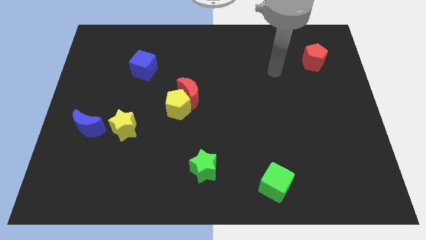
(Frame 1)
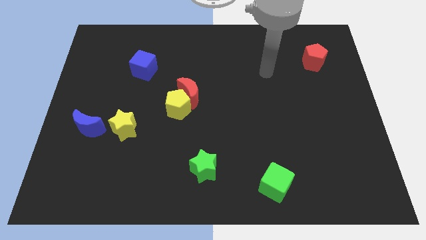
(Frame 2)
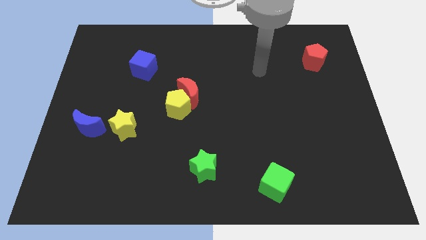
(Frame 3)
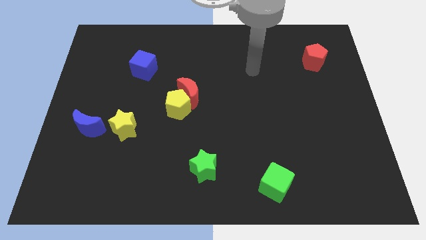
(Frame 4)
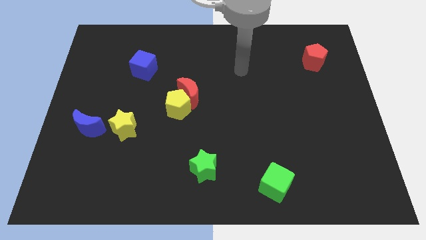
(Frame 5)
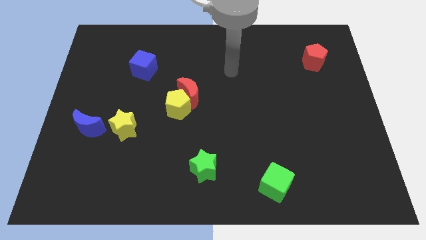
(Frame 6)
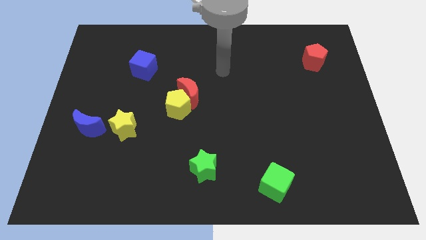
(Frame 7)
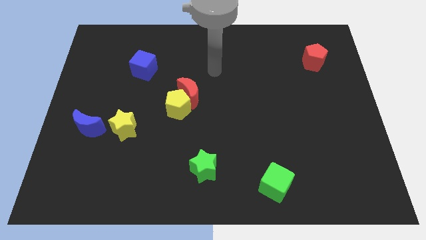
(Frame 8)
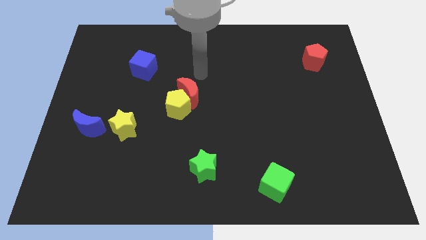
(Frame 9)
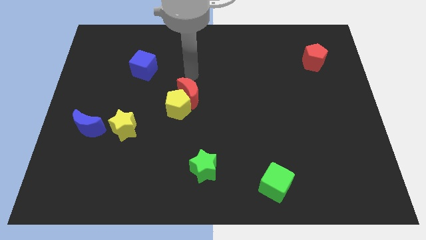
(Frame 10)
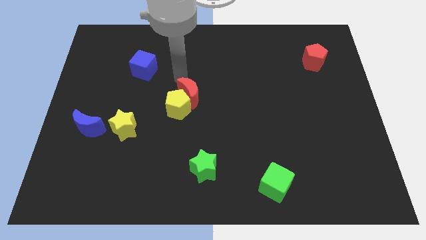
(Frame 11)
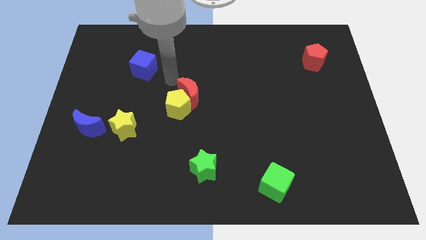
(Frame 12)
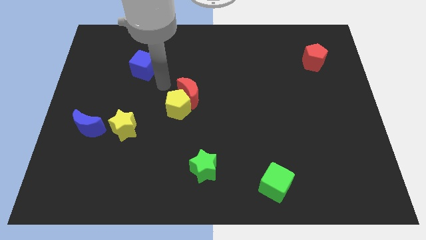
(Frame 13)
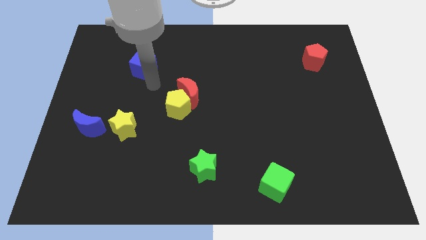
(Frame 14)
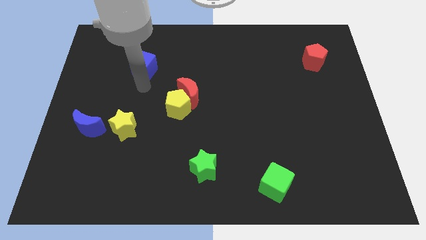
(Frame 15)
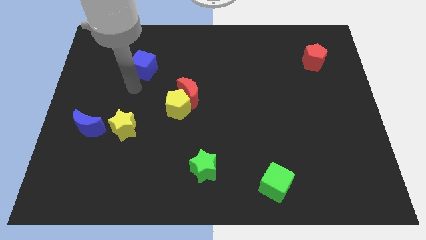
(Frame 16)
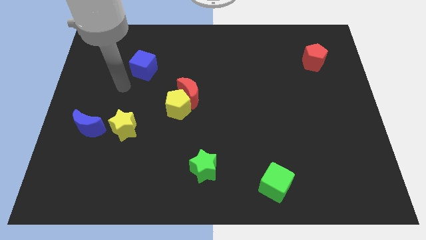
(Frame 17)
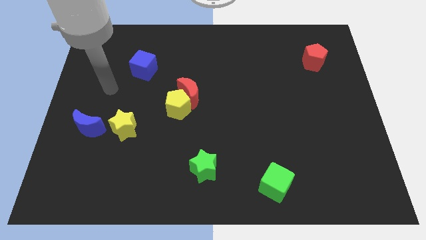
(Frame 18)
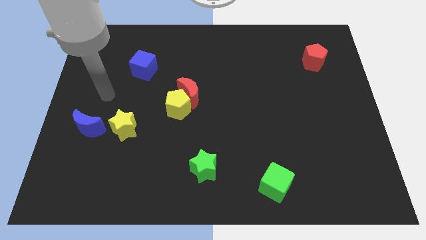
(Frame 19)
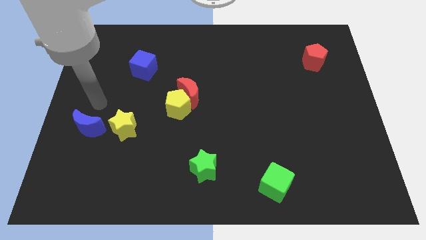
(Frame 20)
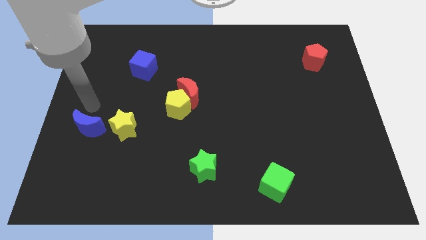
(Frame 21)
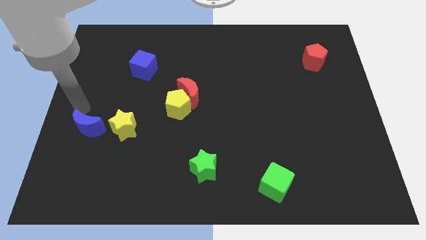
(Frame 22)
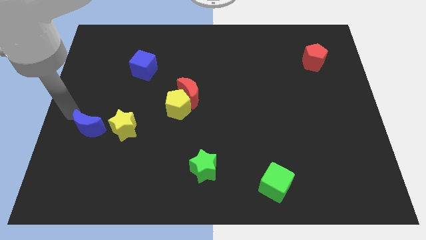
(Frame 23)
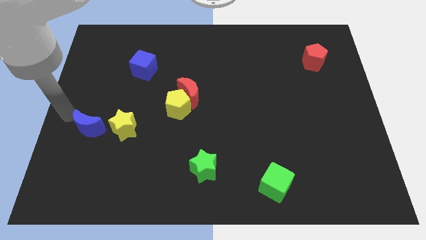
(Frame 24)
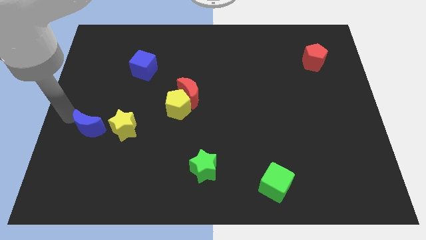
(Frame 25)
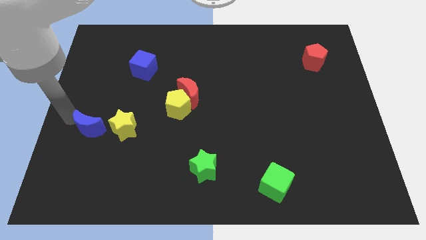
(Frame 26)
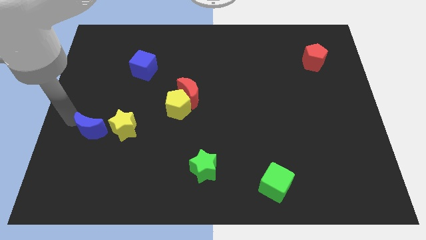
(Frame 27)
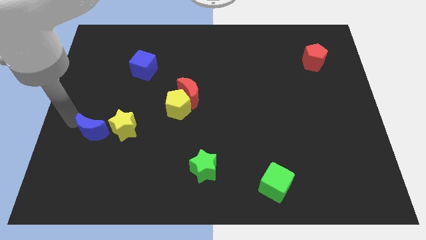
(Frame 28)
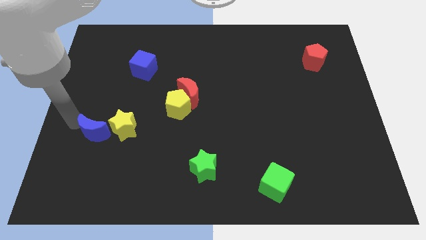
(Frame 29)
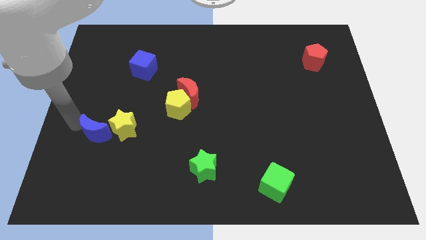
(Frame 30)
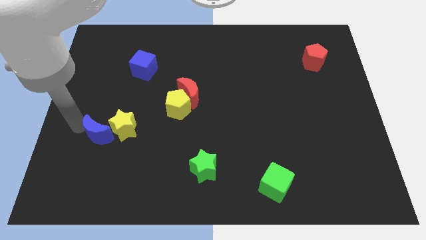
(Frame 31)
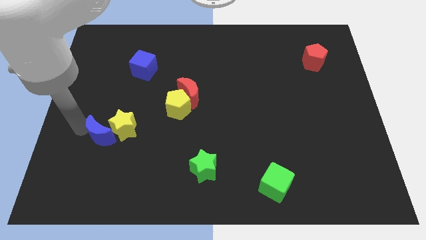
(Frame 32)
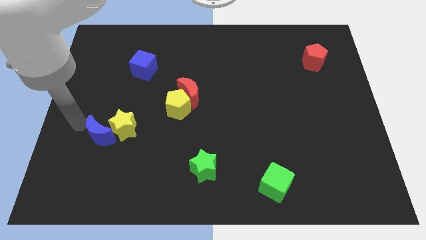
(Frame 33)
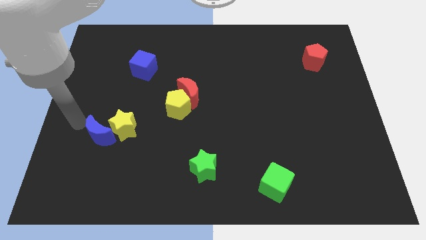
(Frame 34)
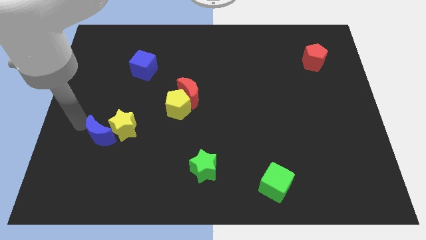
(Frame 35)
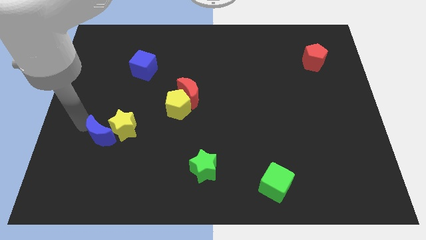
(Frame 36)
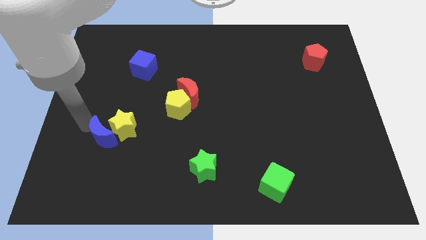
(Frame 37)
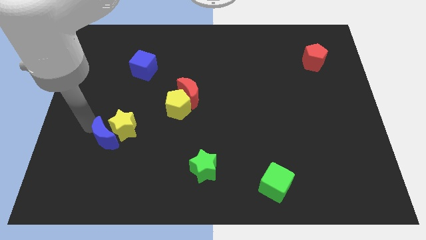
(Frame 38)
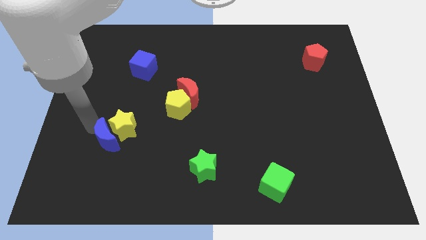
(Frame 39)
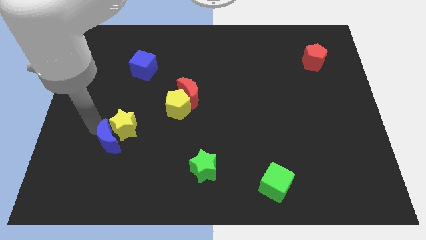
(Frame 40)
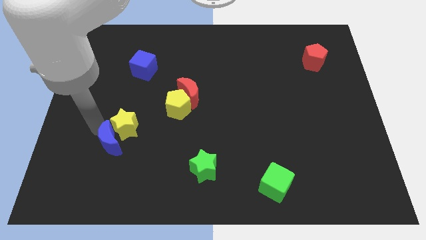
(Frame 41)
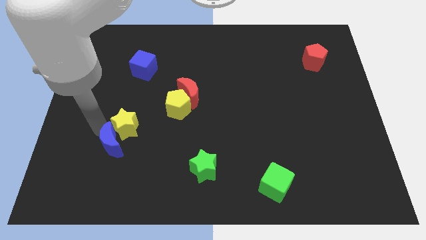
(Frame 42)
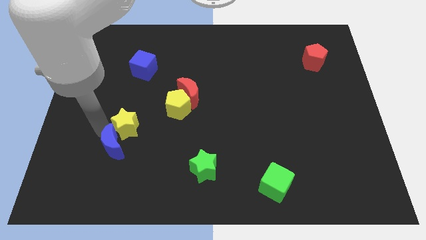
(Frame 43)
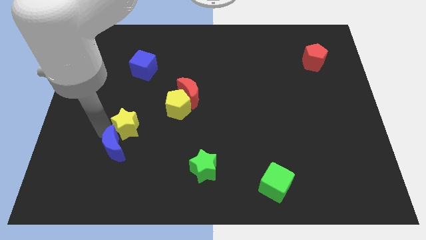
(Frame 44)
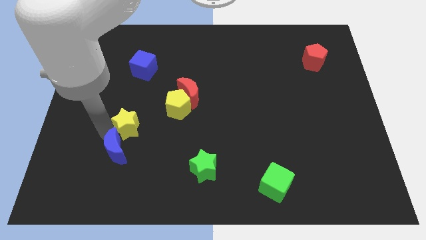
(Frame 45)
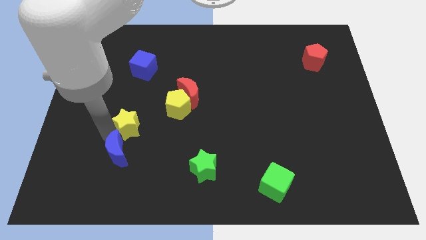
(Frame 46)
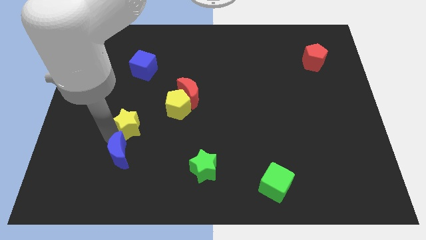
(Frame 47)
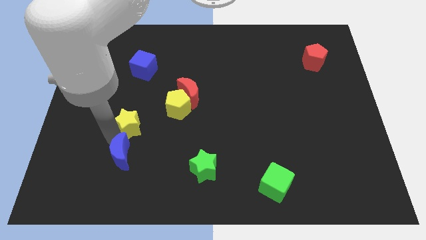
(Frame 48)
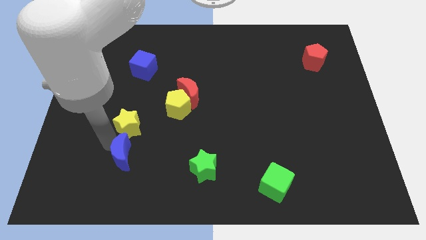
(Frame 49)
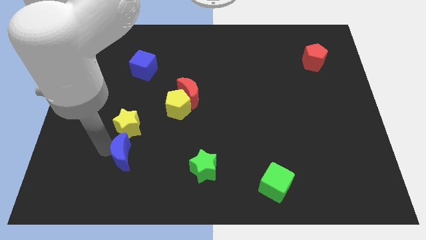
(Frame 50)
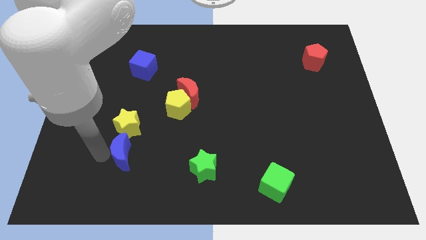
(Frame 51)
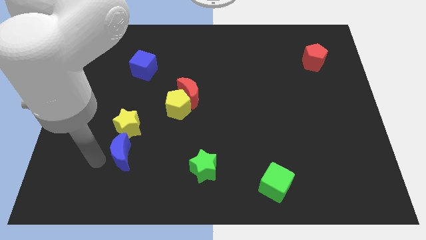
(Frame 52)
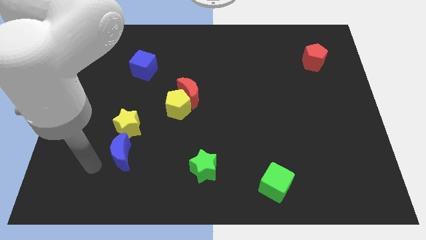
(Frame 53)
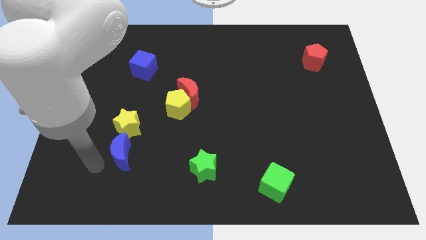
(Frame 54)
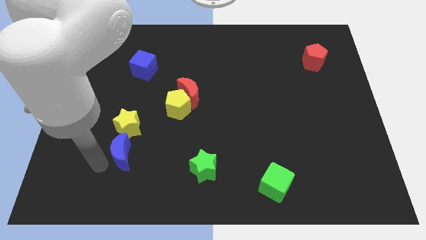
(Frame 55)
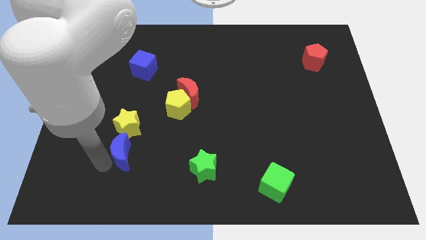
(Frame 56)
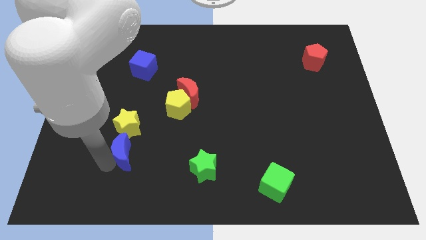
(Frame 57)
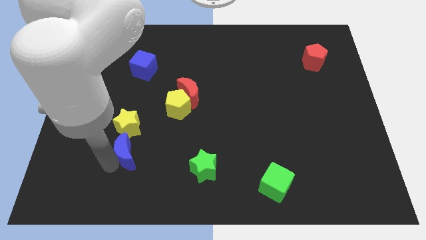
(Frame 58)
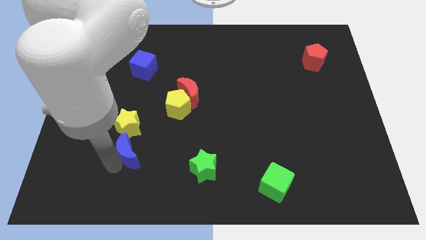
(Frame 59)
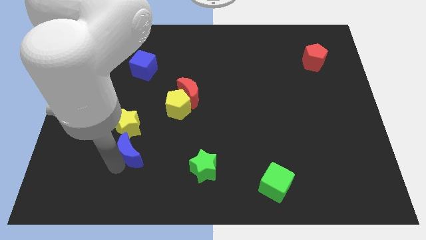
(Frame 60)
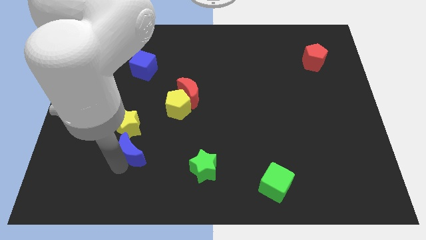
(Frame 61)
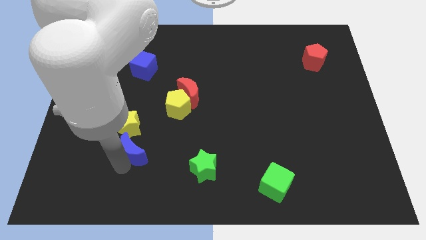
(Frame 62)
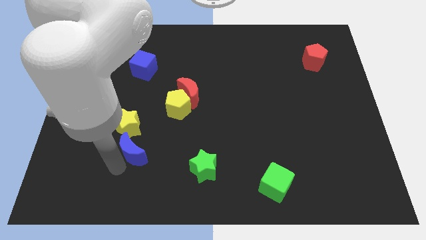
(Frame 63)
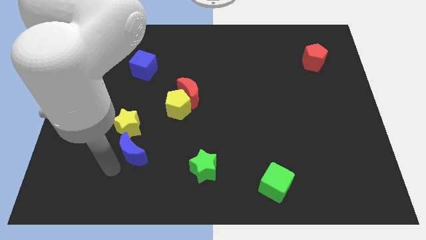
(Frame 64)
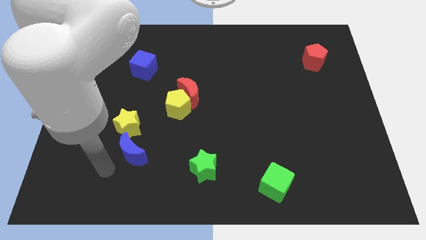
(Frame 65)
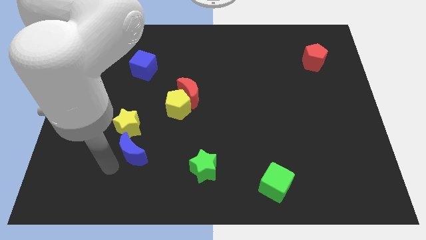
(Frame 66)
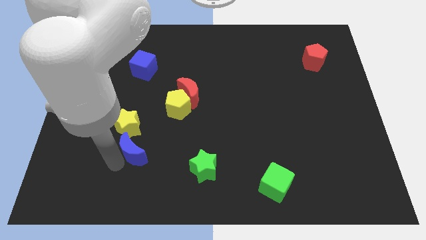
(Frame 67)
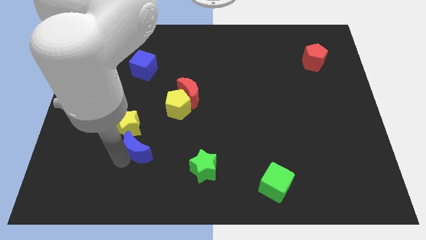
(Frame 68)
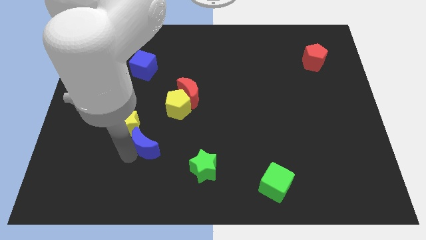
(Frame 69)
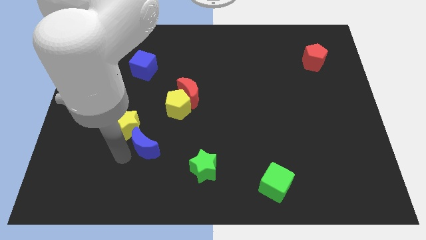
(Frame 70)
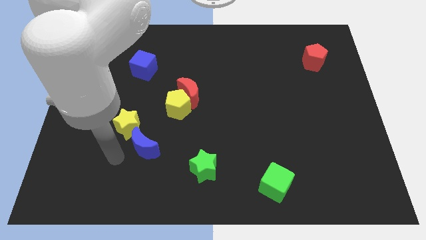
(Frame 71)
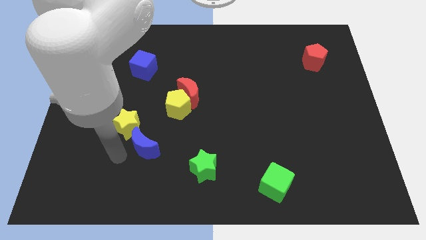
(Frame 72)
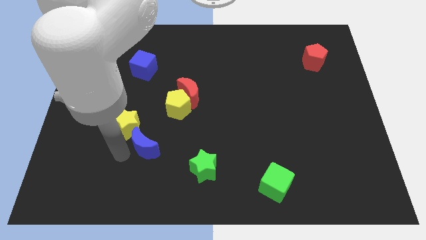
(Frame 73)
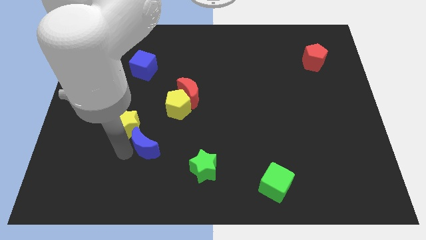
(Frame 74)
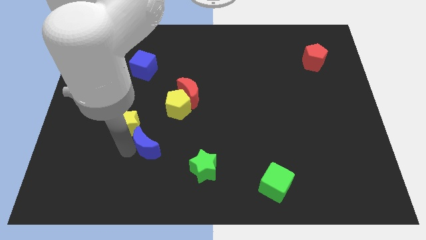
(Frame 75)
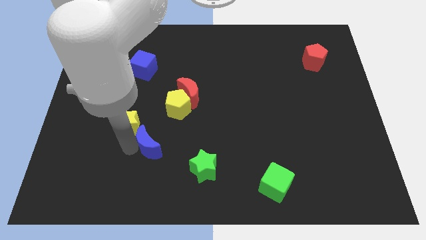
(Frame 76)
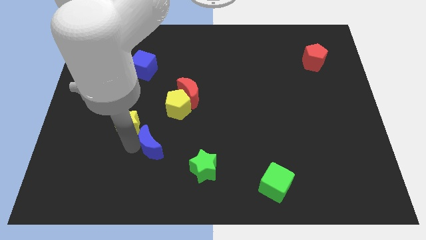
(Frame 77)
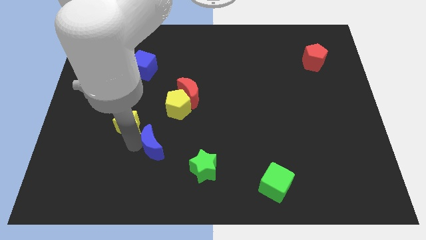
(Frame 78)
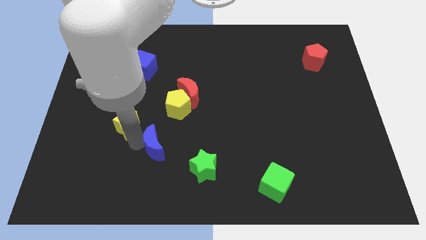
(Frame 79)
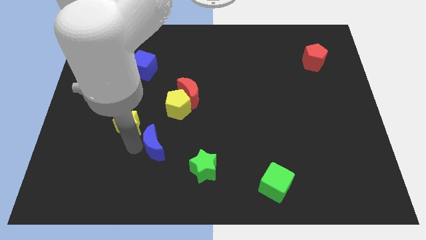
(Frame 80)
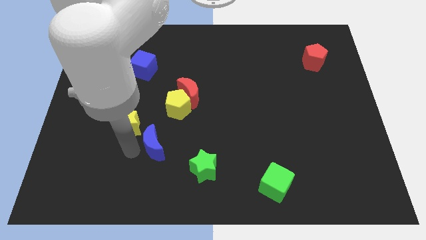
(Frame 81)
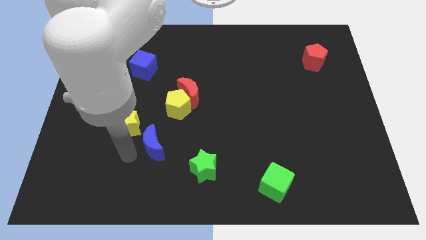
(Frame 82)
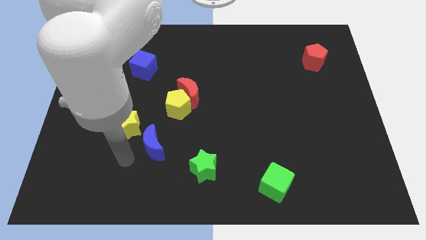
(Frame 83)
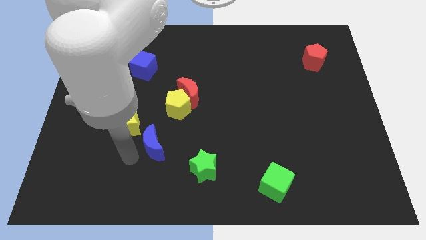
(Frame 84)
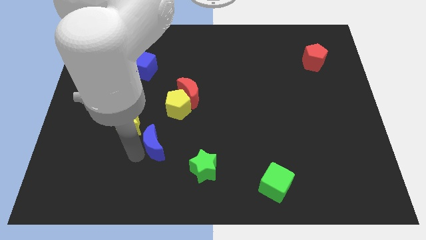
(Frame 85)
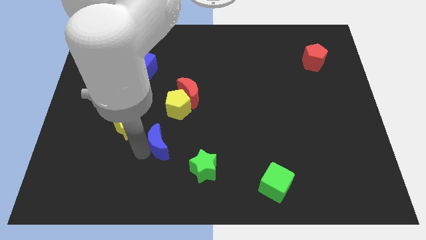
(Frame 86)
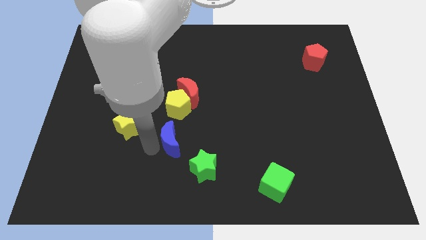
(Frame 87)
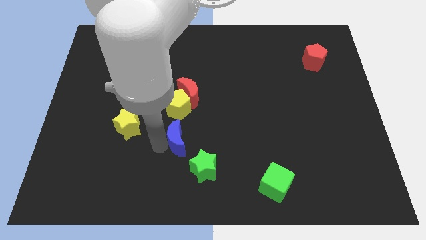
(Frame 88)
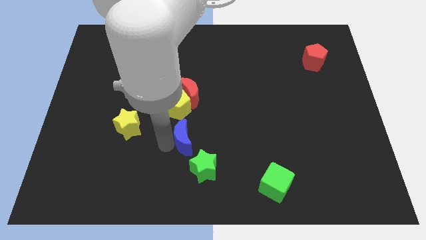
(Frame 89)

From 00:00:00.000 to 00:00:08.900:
push the blue moon right
